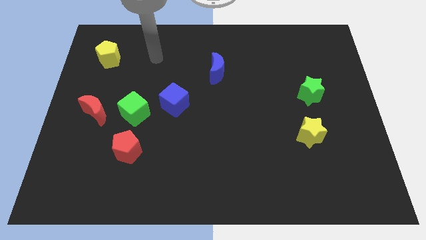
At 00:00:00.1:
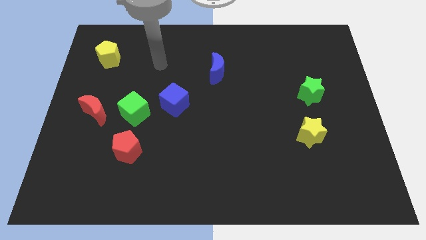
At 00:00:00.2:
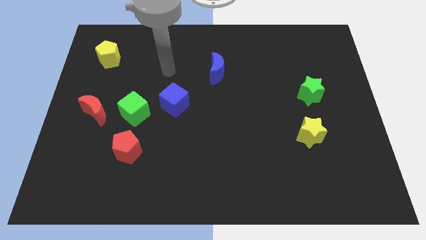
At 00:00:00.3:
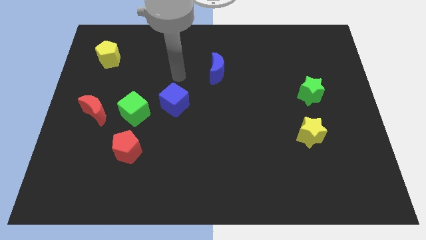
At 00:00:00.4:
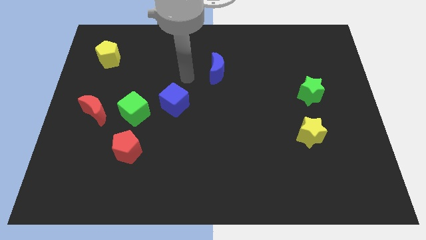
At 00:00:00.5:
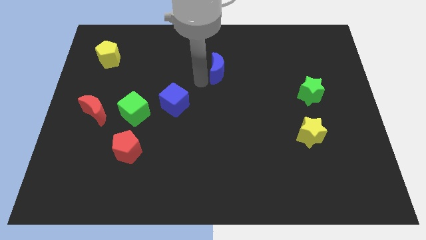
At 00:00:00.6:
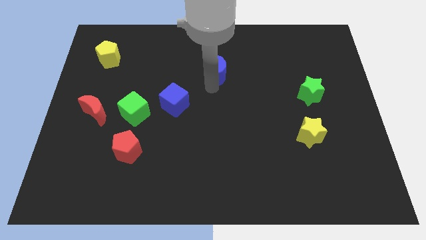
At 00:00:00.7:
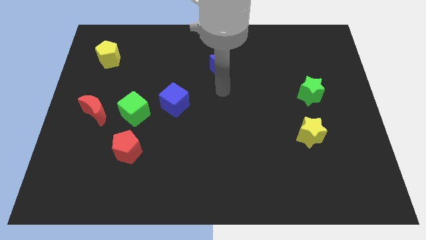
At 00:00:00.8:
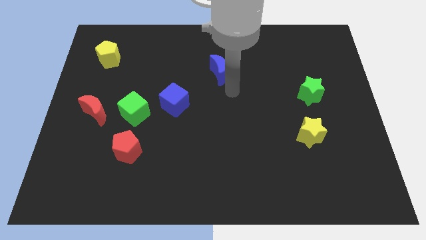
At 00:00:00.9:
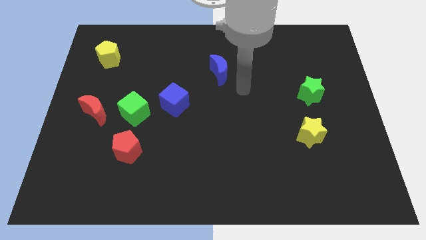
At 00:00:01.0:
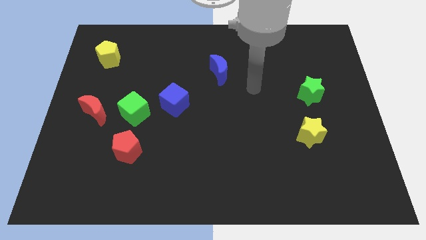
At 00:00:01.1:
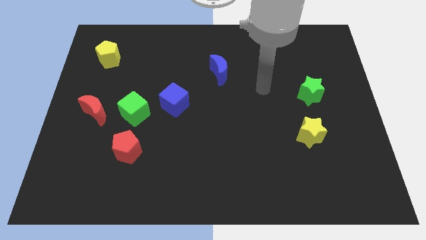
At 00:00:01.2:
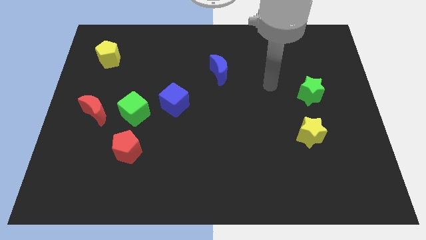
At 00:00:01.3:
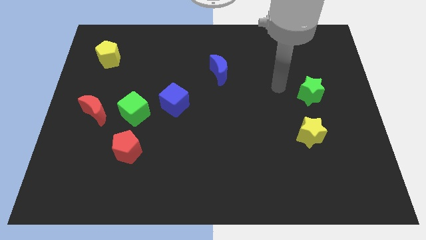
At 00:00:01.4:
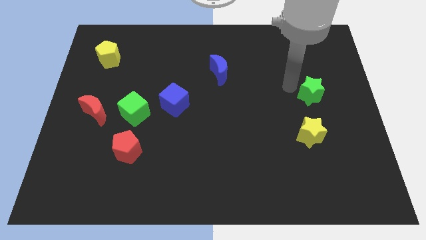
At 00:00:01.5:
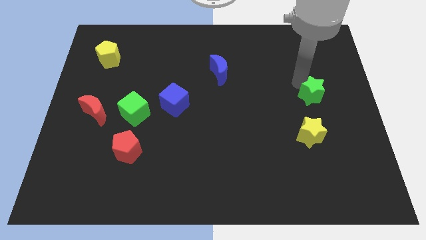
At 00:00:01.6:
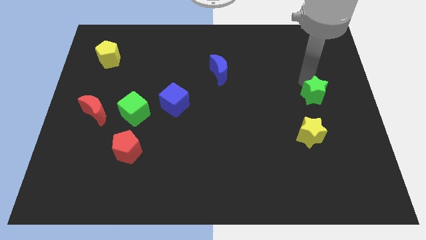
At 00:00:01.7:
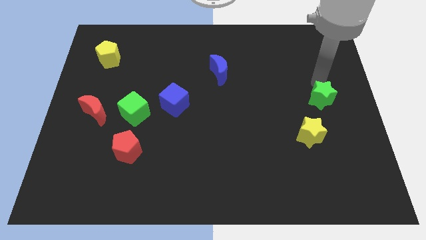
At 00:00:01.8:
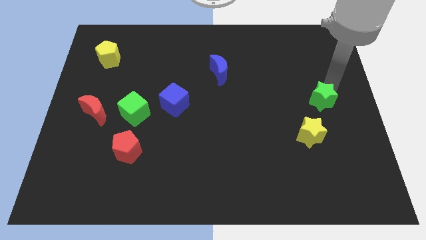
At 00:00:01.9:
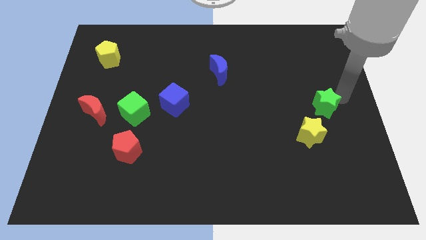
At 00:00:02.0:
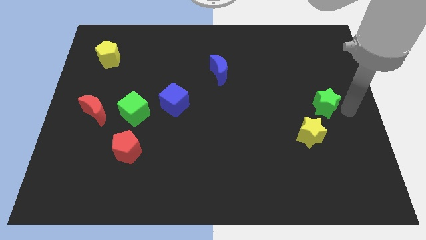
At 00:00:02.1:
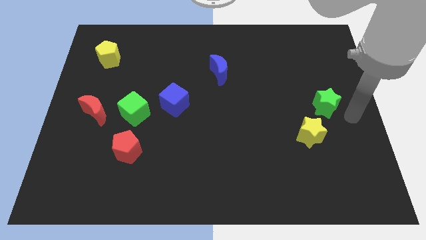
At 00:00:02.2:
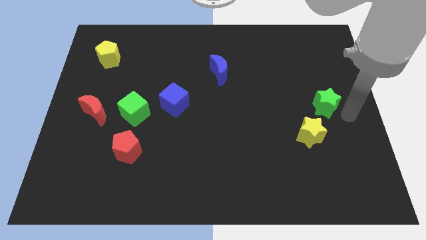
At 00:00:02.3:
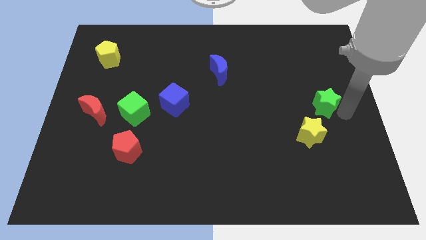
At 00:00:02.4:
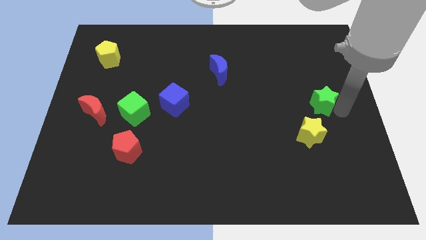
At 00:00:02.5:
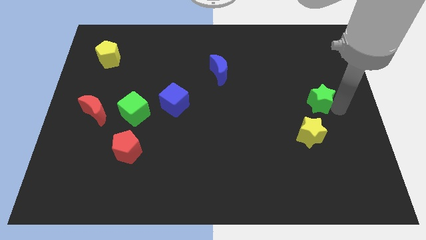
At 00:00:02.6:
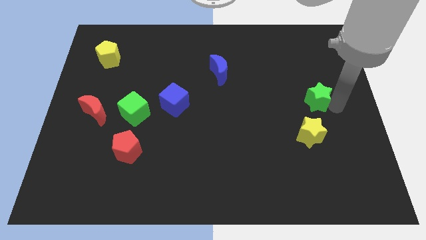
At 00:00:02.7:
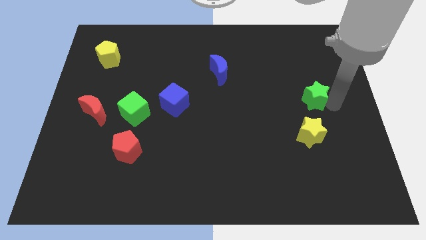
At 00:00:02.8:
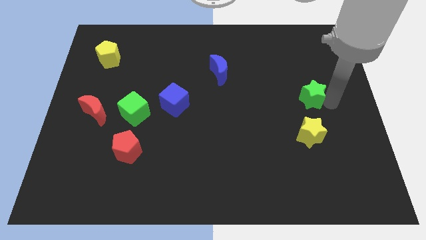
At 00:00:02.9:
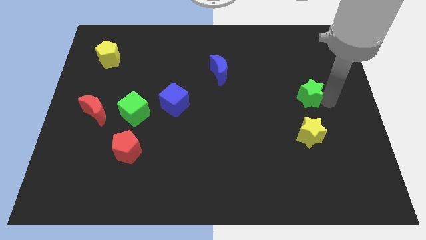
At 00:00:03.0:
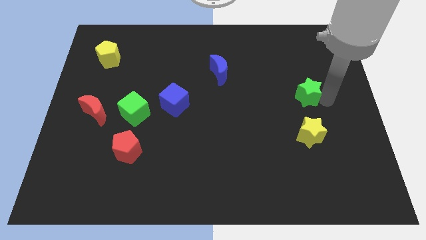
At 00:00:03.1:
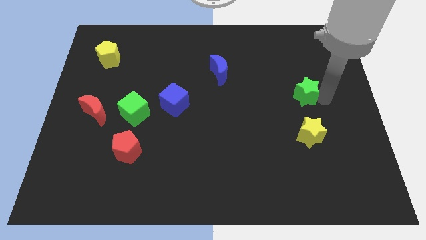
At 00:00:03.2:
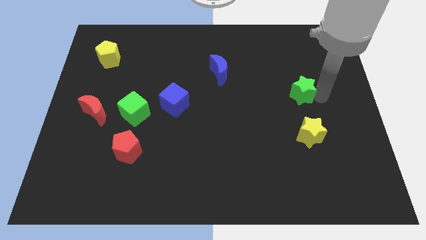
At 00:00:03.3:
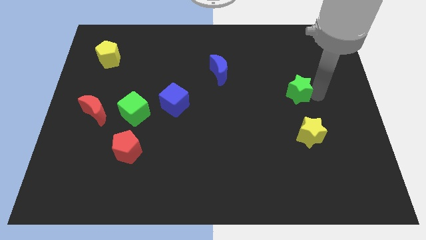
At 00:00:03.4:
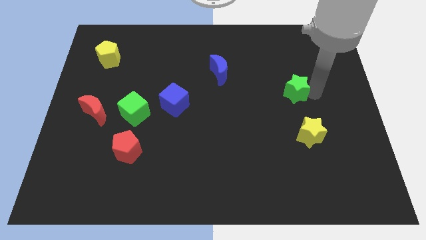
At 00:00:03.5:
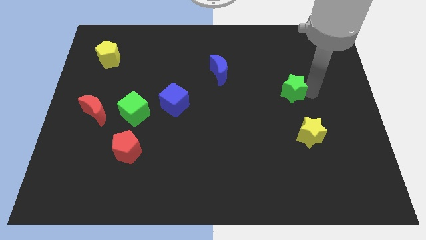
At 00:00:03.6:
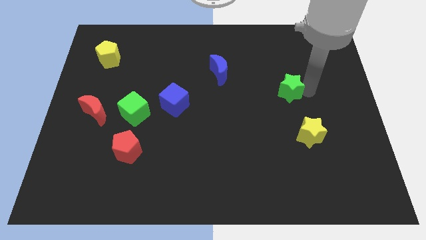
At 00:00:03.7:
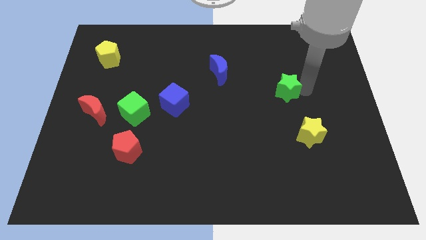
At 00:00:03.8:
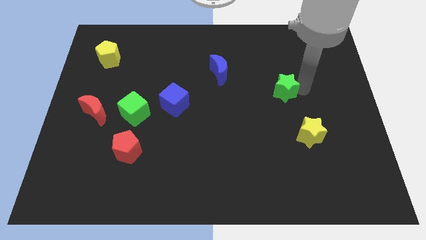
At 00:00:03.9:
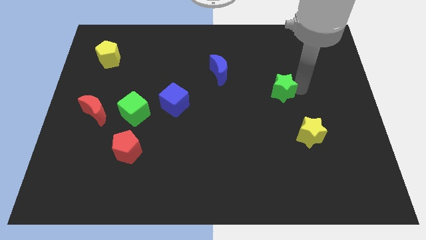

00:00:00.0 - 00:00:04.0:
slightly move the green star to the left

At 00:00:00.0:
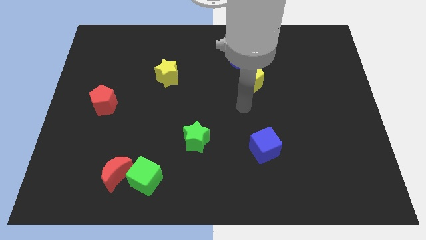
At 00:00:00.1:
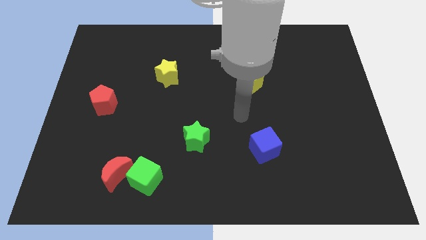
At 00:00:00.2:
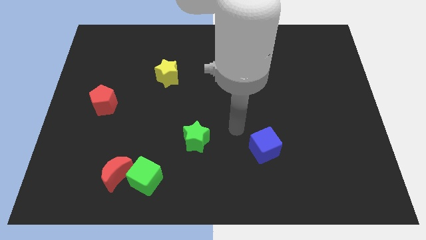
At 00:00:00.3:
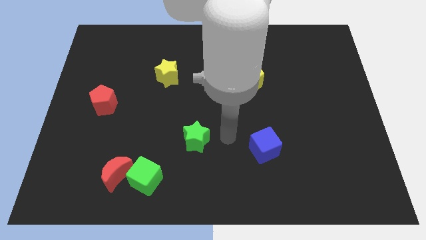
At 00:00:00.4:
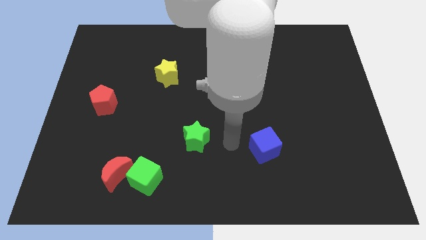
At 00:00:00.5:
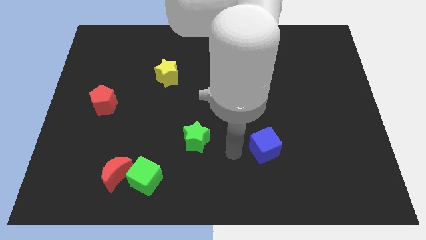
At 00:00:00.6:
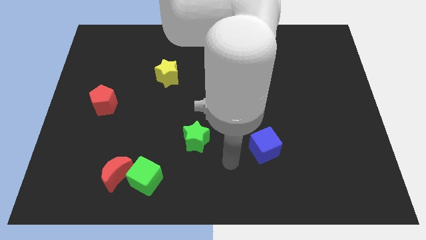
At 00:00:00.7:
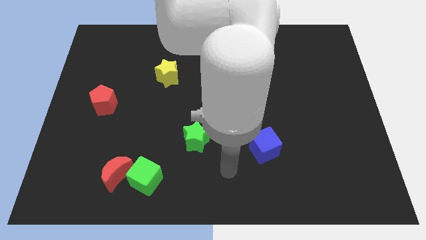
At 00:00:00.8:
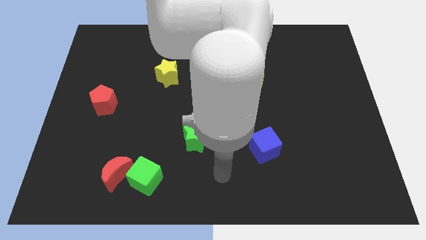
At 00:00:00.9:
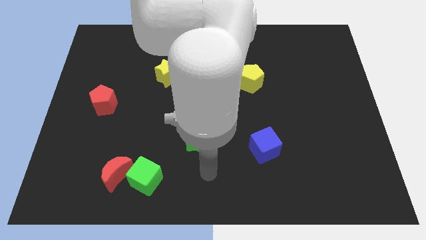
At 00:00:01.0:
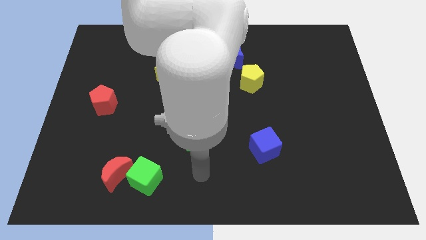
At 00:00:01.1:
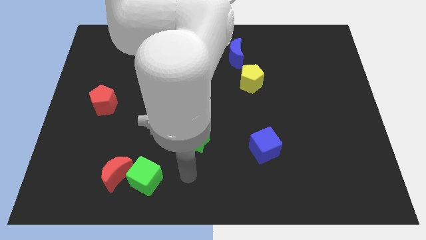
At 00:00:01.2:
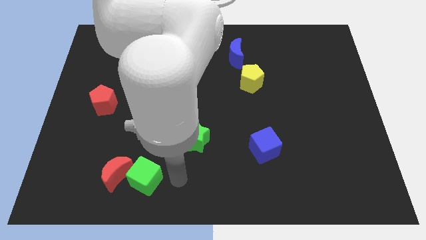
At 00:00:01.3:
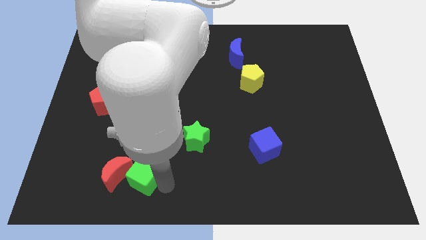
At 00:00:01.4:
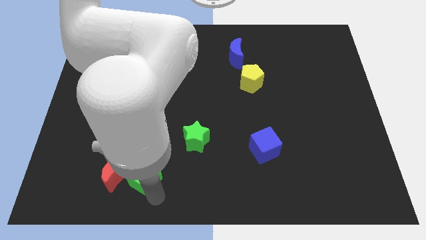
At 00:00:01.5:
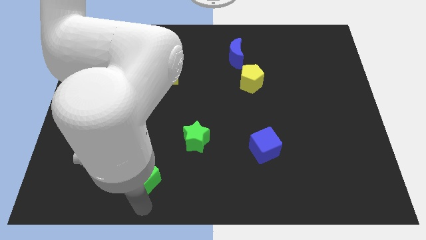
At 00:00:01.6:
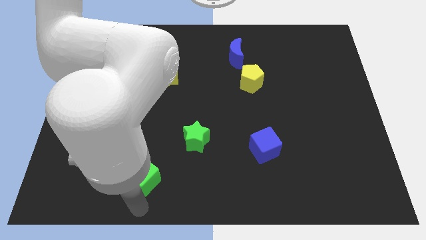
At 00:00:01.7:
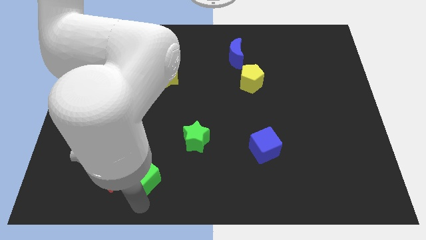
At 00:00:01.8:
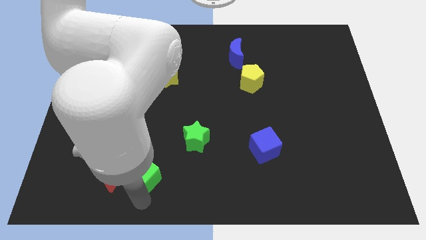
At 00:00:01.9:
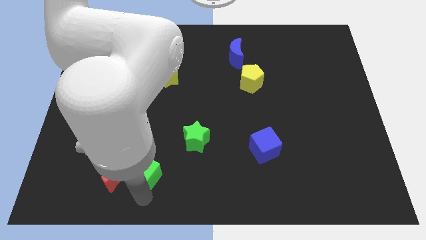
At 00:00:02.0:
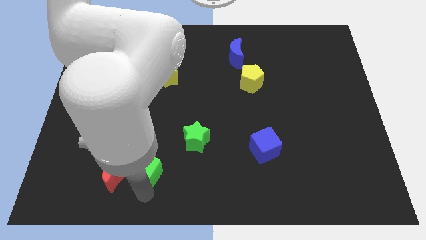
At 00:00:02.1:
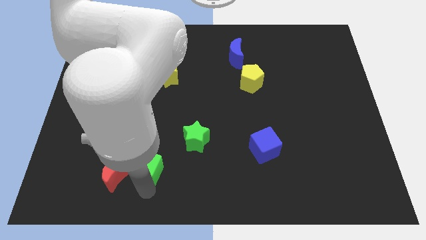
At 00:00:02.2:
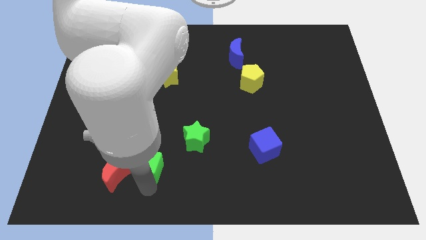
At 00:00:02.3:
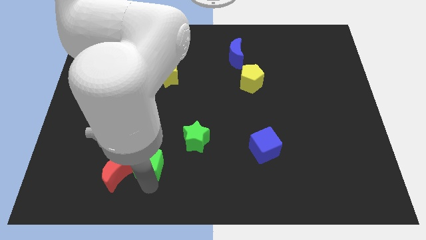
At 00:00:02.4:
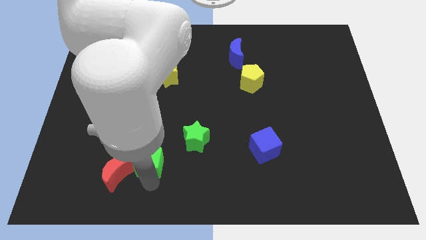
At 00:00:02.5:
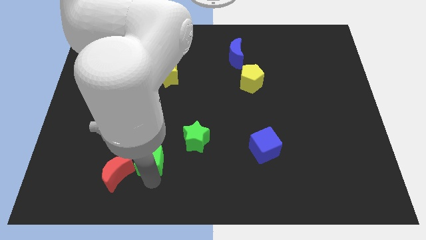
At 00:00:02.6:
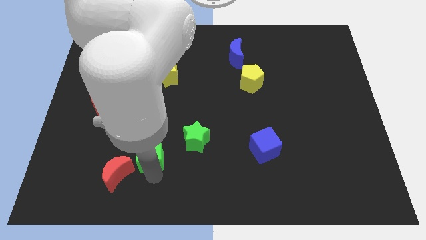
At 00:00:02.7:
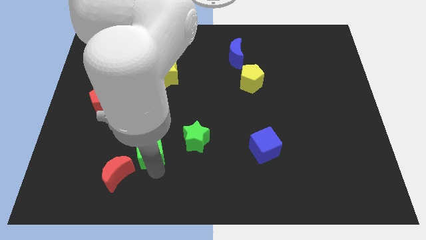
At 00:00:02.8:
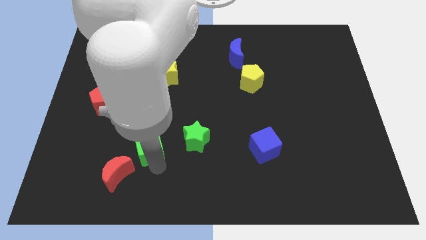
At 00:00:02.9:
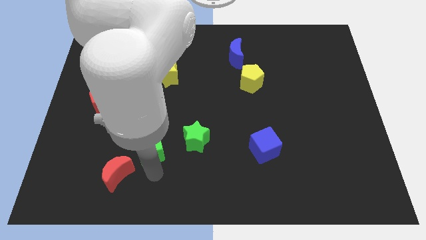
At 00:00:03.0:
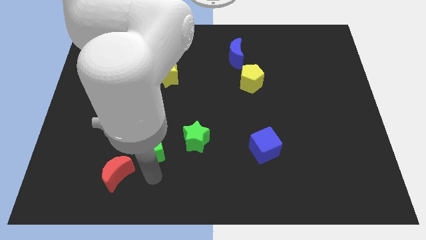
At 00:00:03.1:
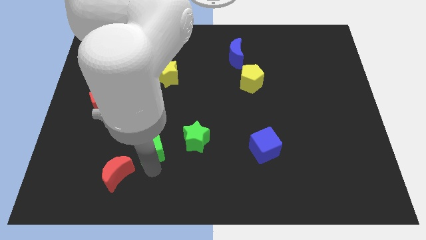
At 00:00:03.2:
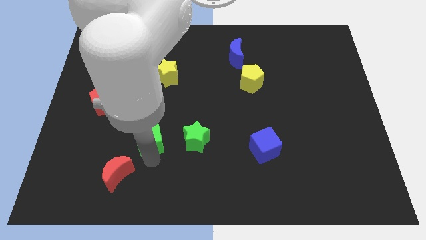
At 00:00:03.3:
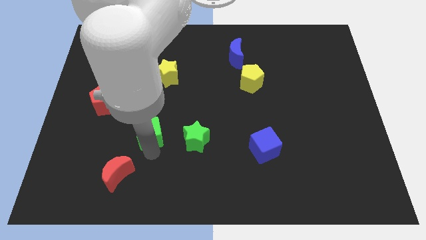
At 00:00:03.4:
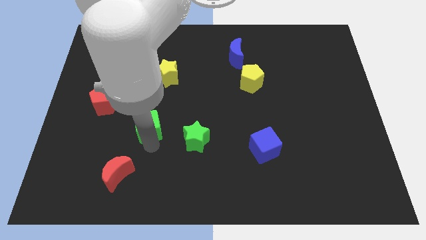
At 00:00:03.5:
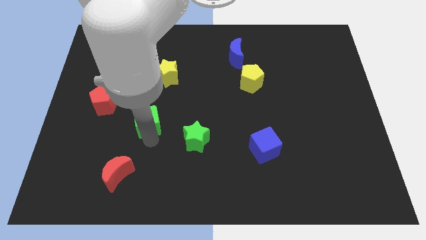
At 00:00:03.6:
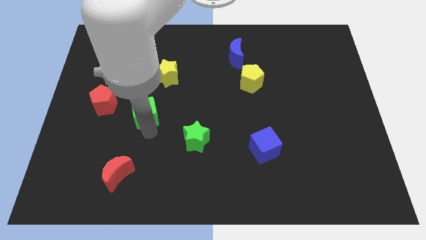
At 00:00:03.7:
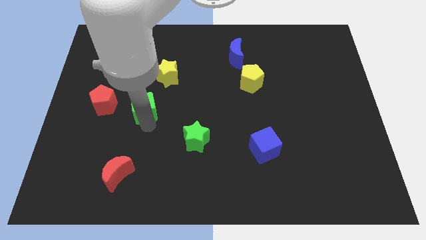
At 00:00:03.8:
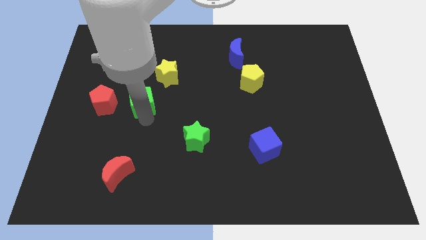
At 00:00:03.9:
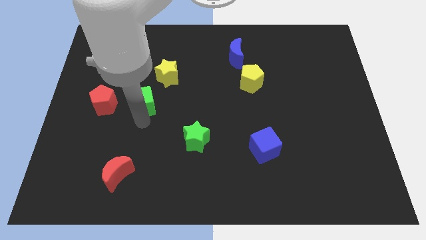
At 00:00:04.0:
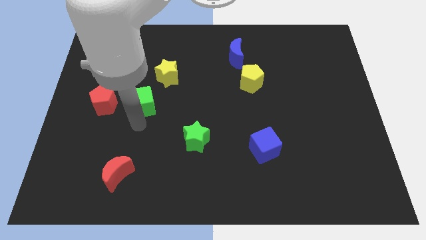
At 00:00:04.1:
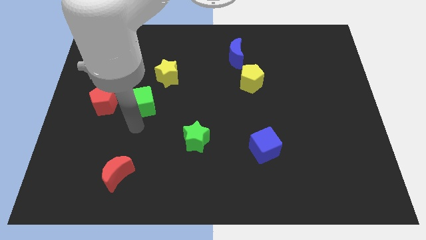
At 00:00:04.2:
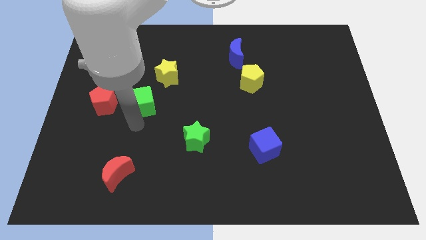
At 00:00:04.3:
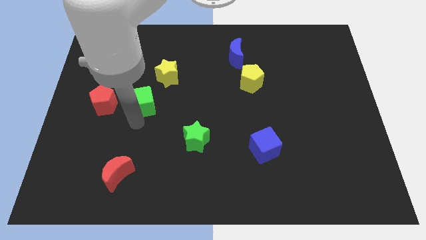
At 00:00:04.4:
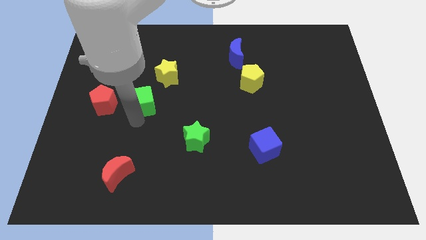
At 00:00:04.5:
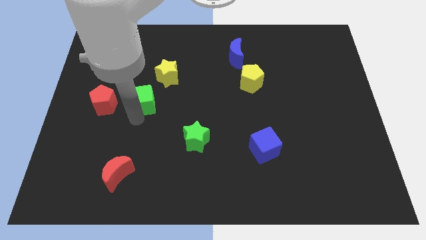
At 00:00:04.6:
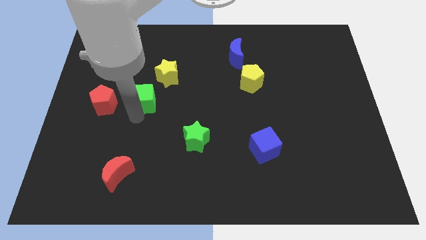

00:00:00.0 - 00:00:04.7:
move the green cube upwards
